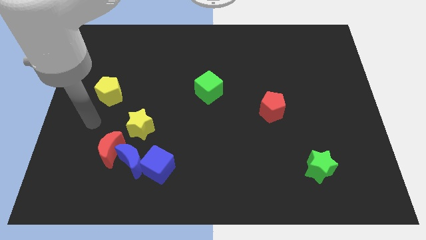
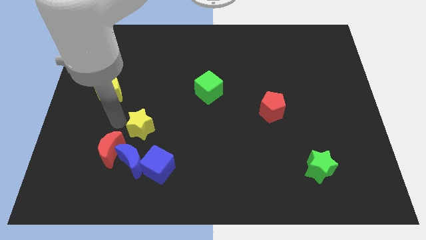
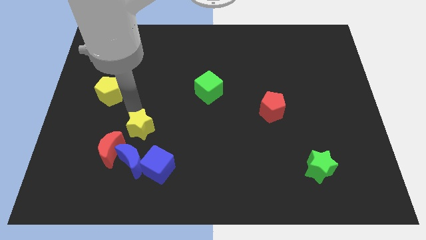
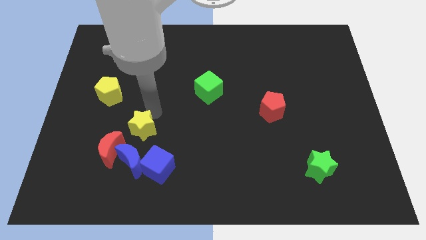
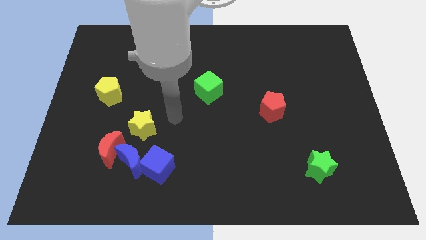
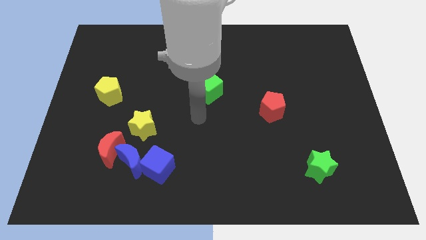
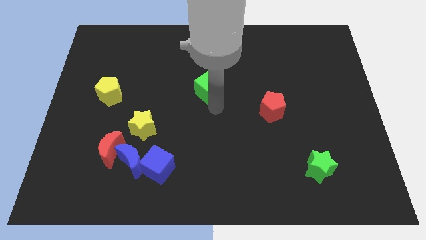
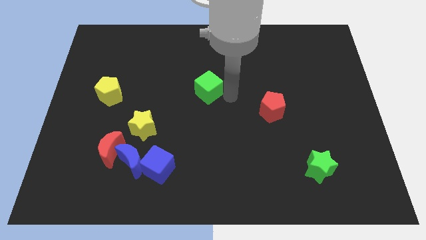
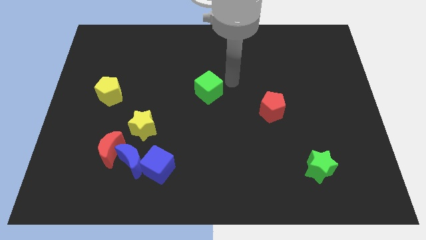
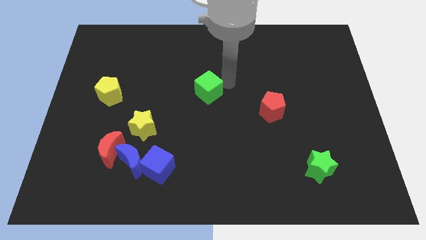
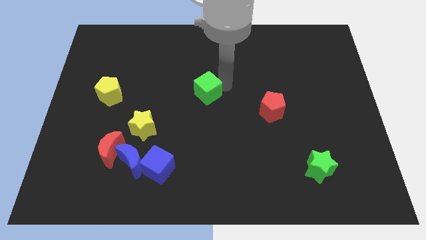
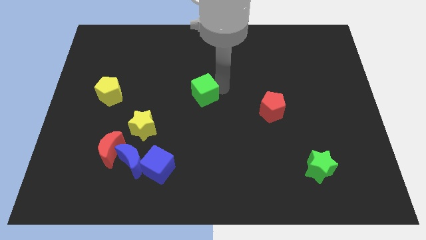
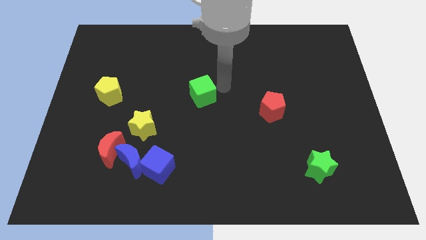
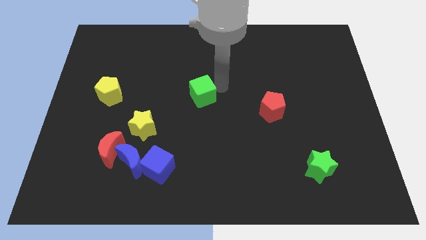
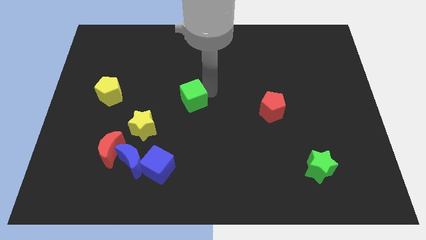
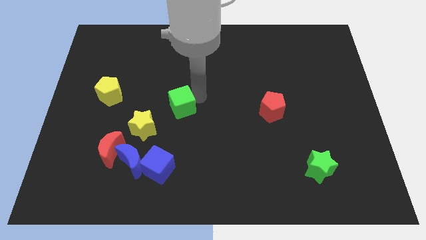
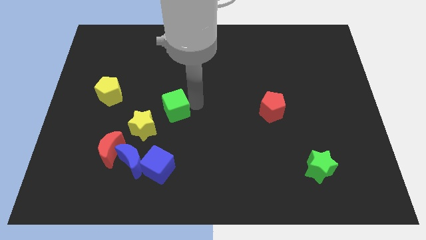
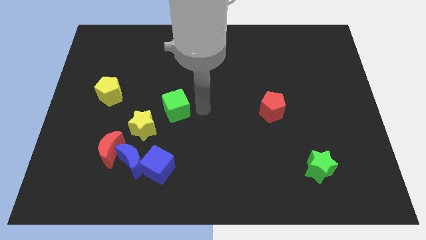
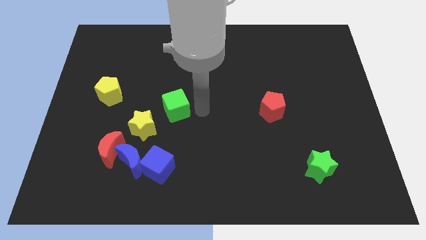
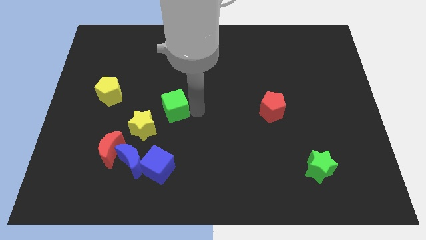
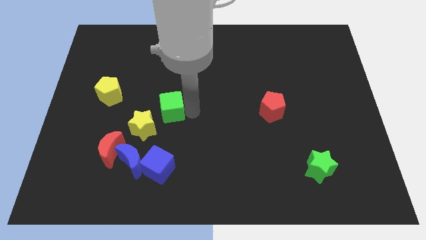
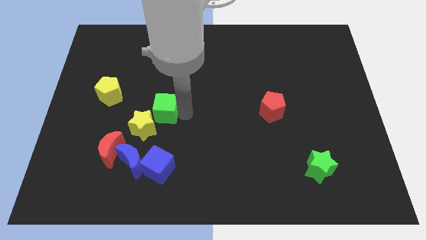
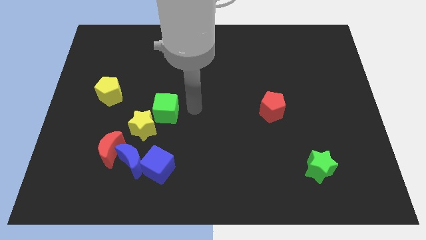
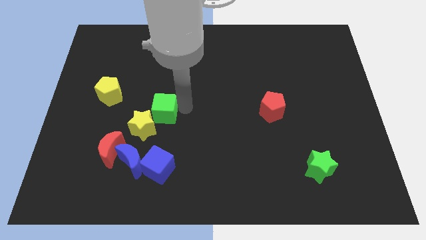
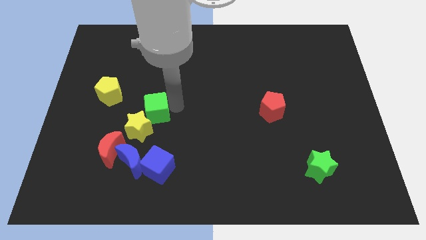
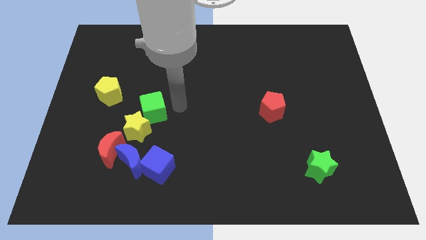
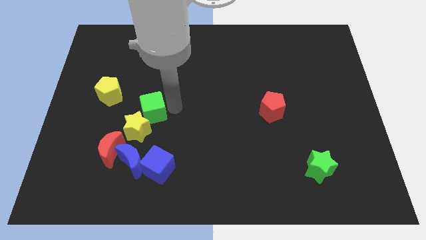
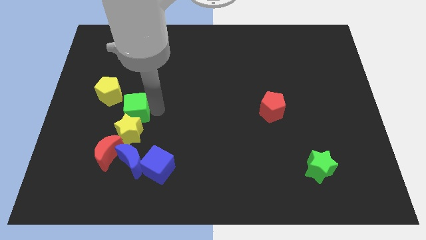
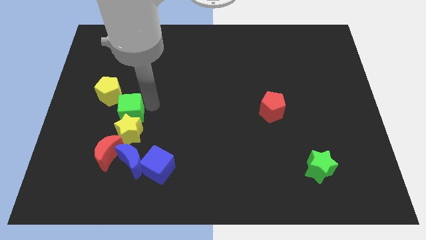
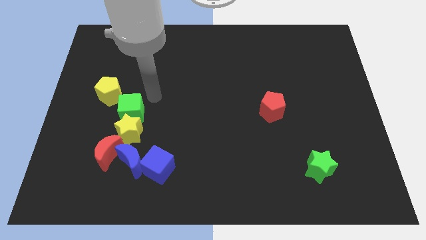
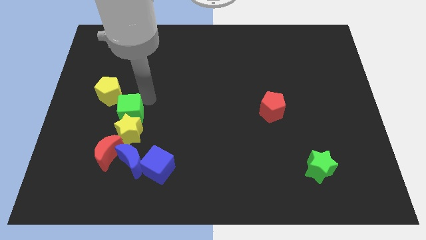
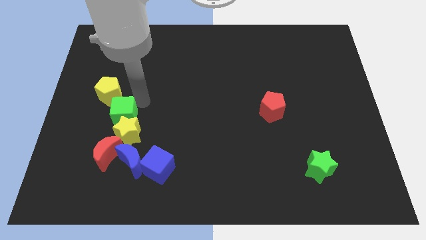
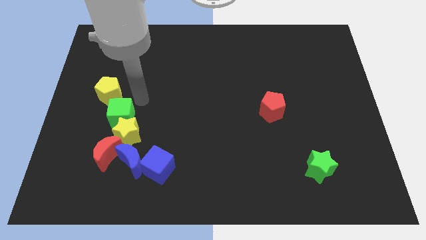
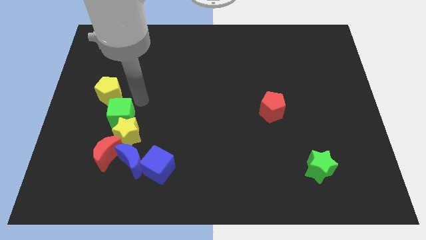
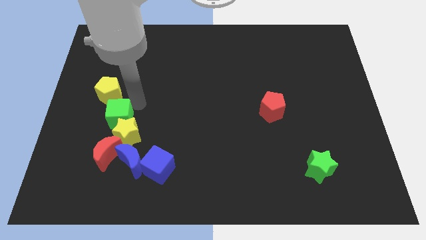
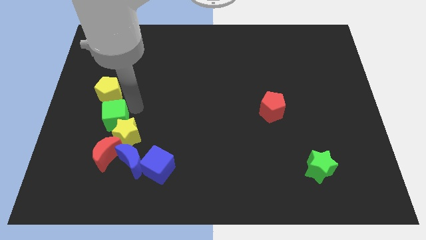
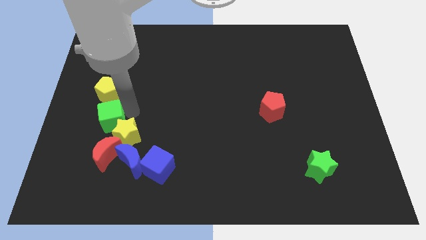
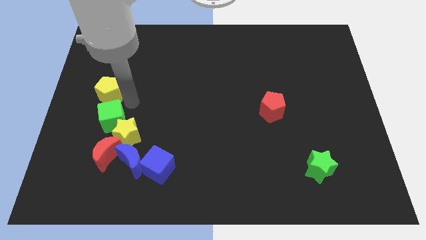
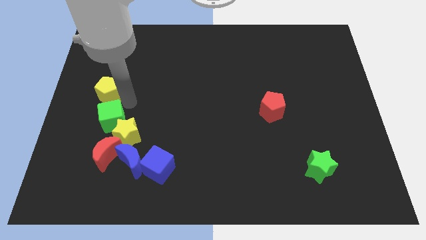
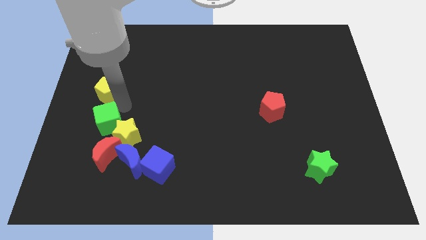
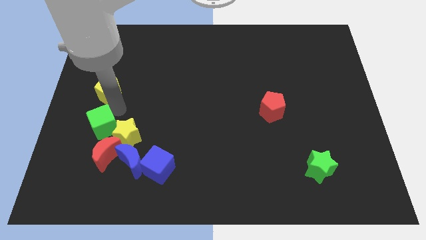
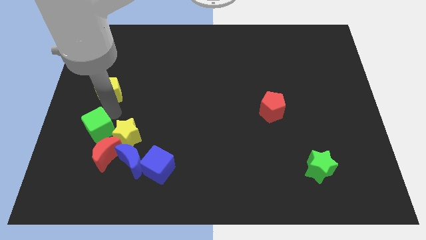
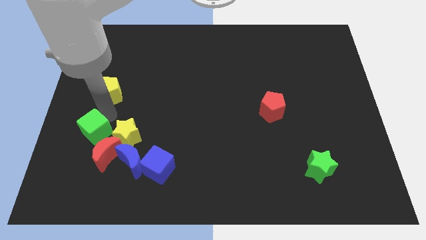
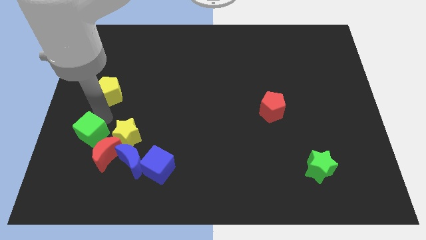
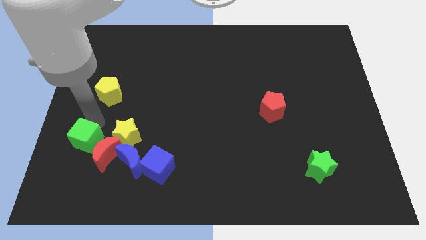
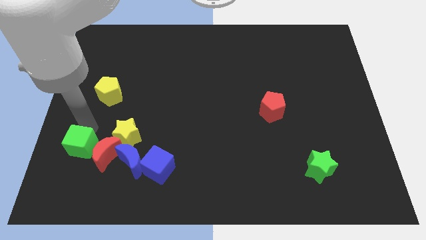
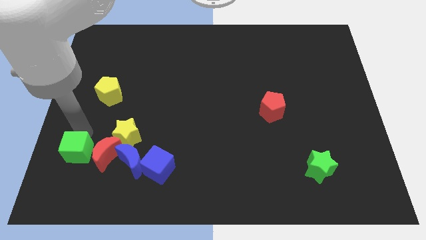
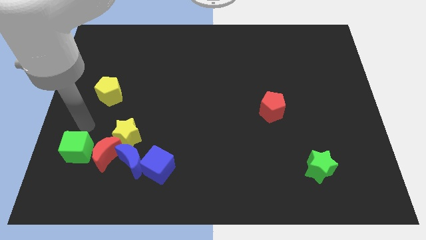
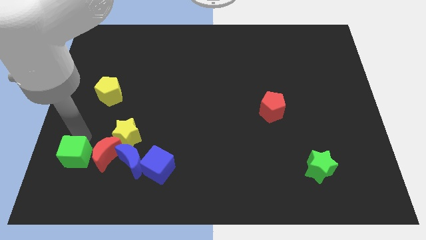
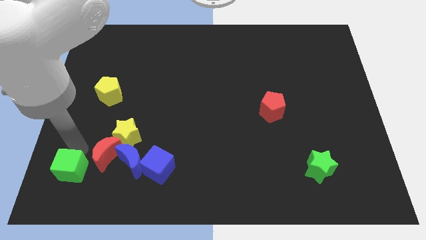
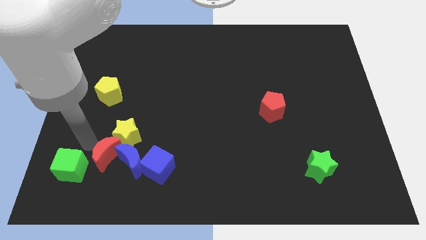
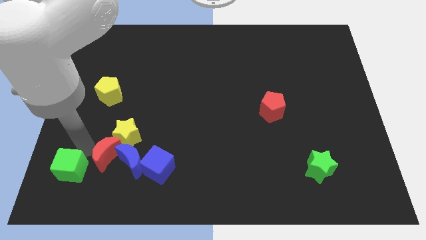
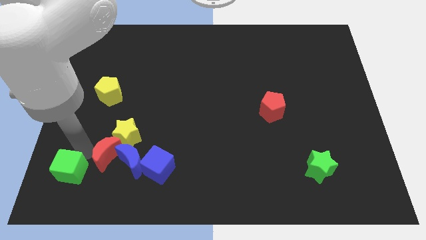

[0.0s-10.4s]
put the green cube to the bottom left corner
